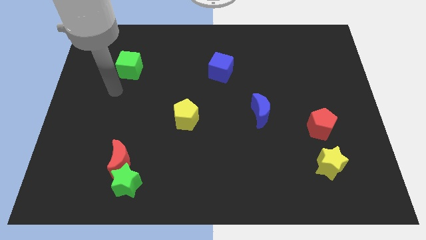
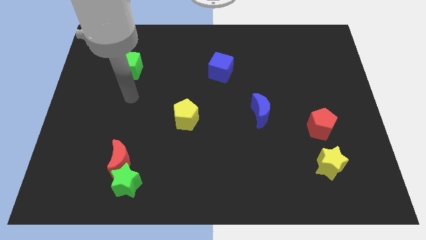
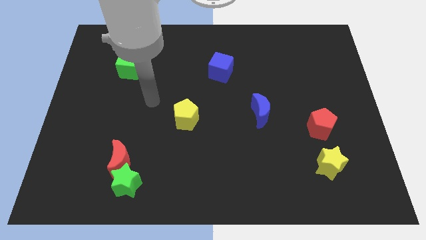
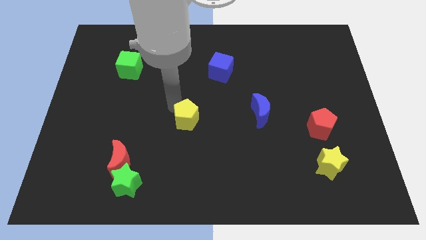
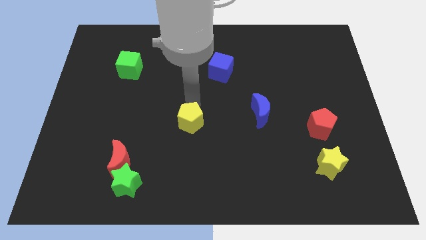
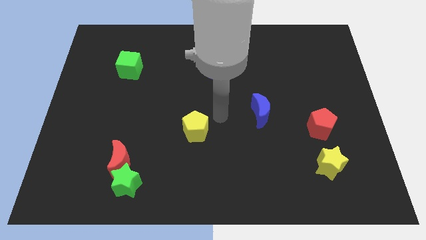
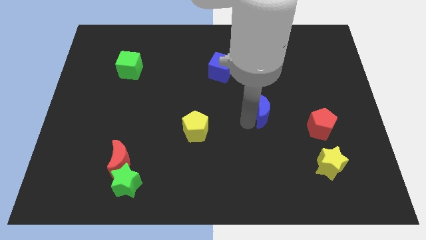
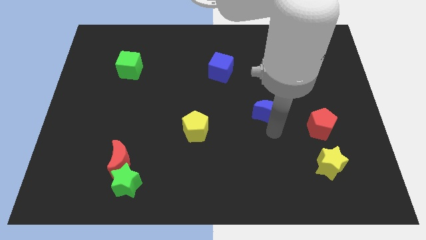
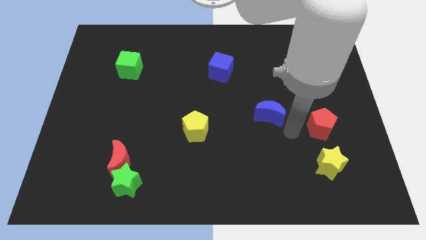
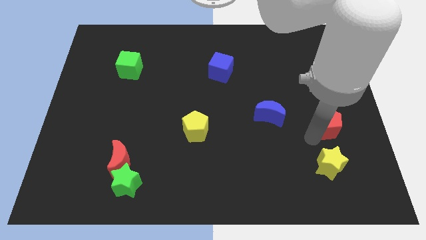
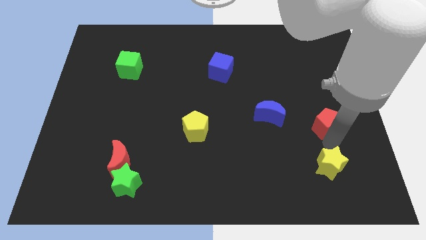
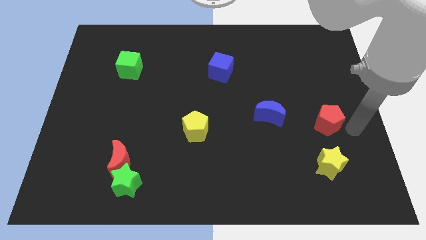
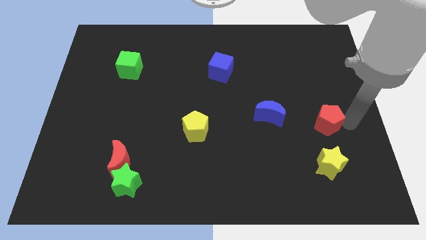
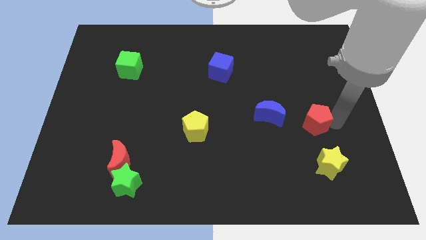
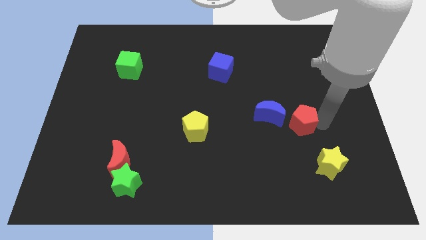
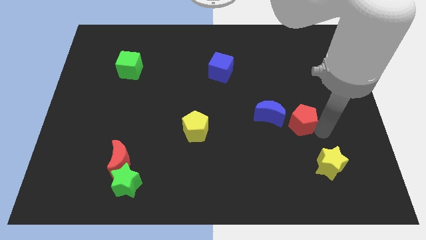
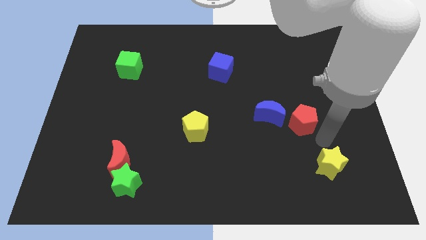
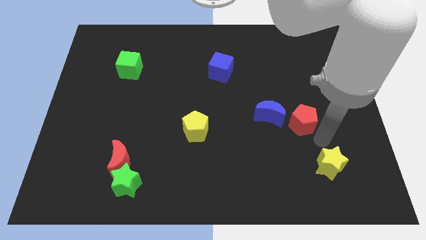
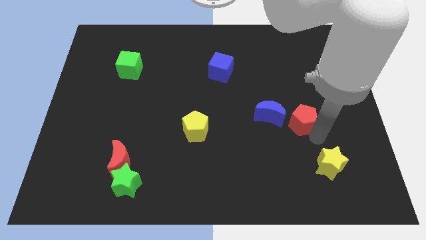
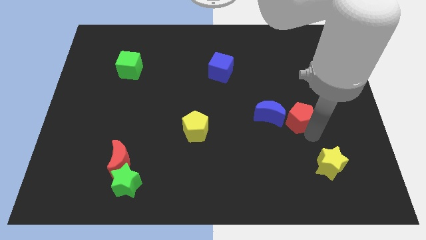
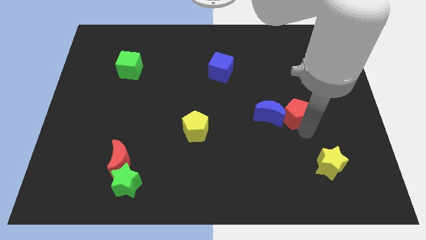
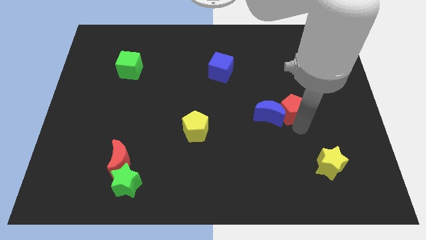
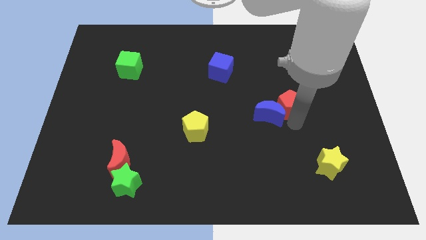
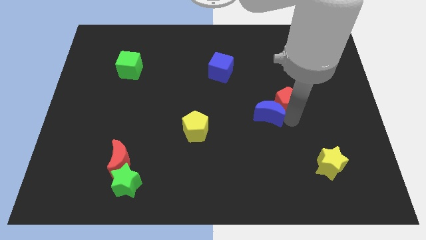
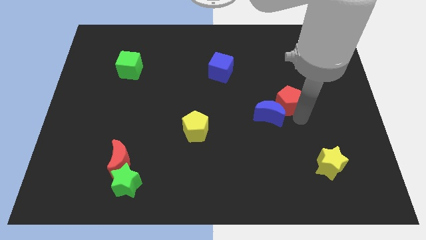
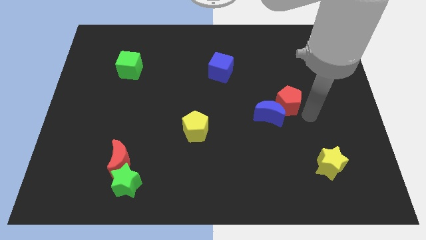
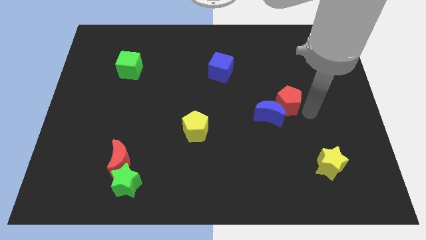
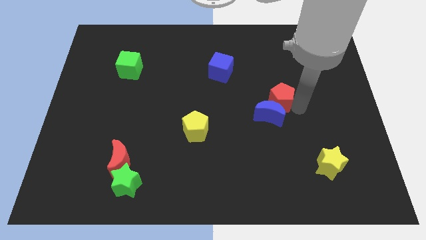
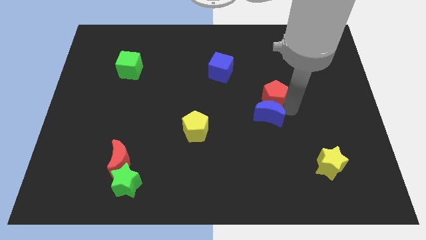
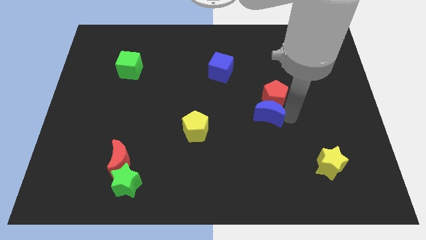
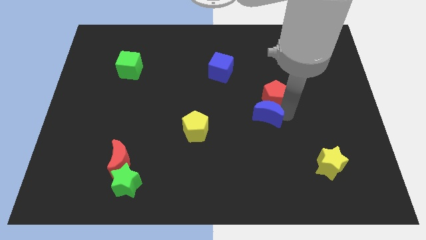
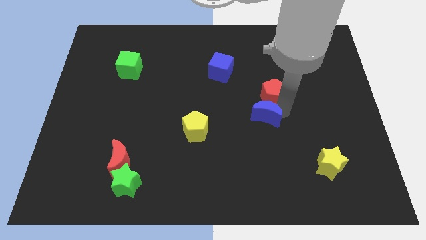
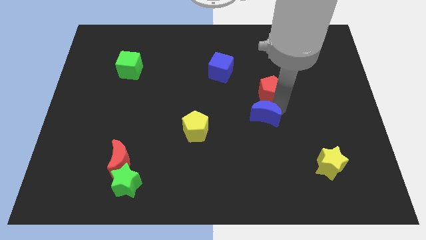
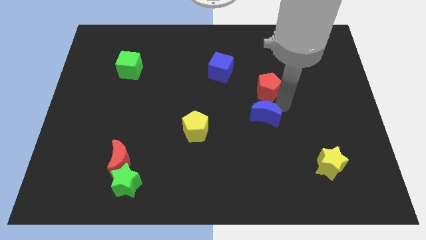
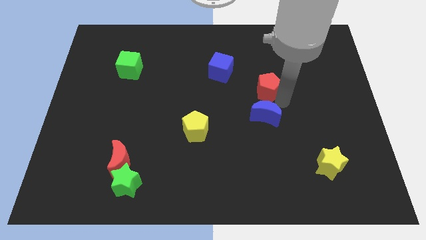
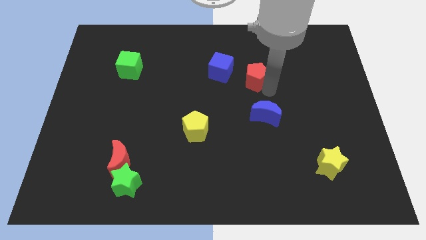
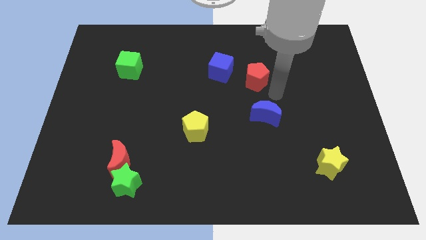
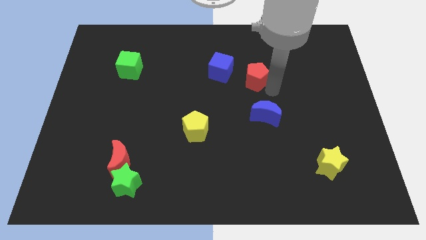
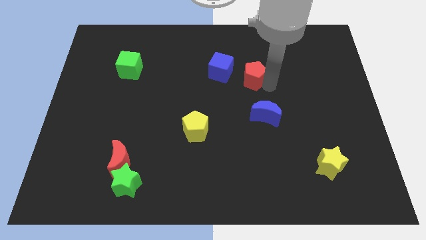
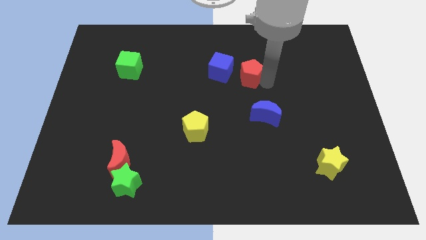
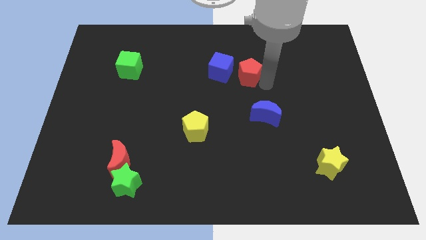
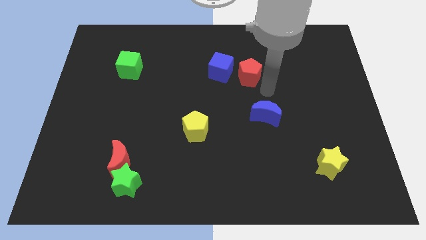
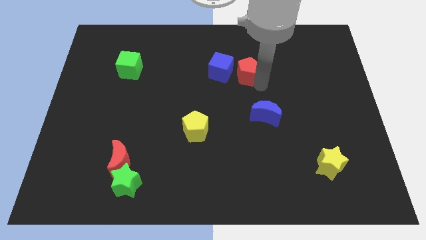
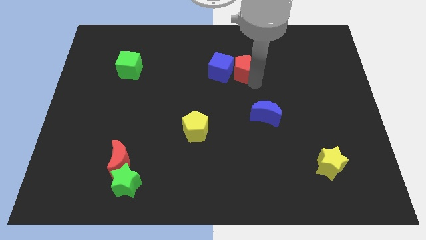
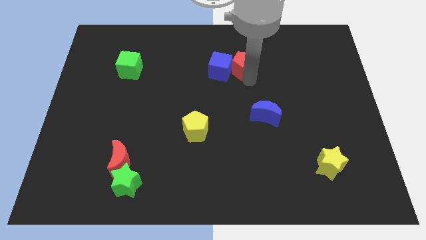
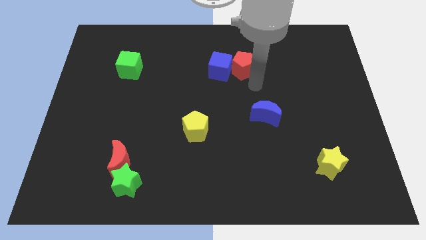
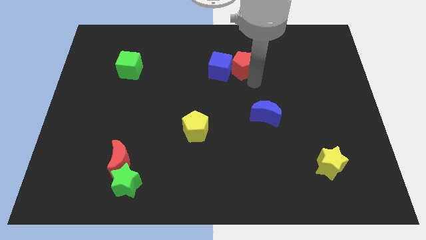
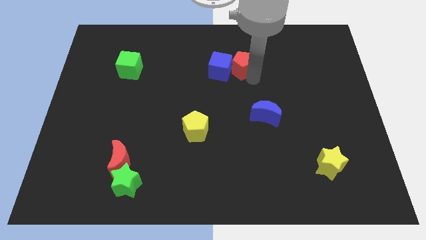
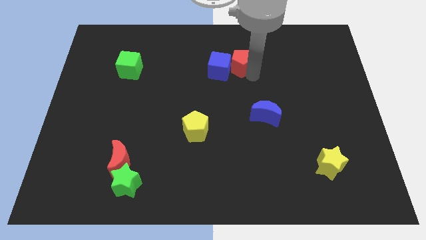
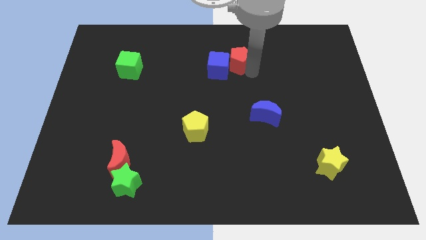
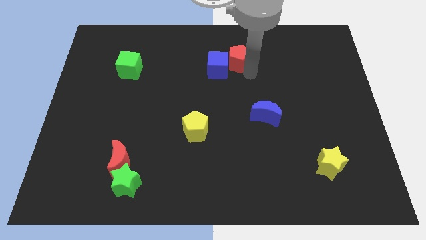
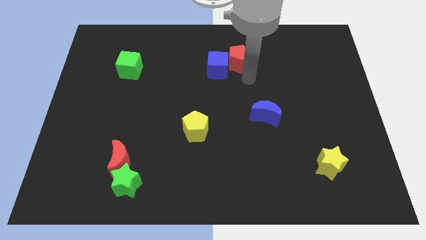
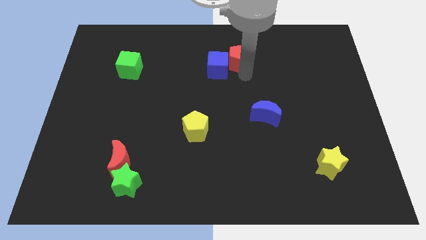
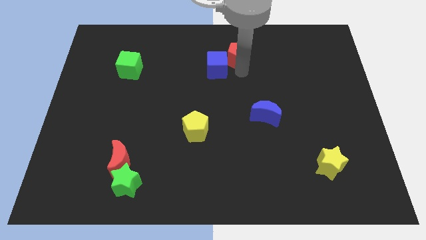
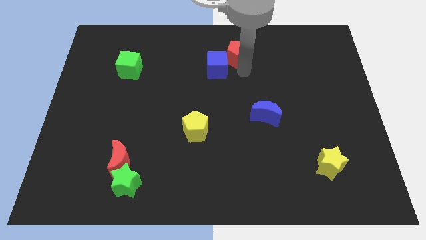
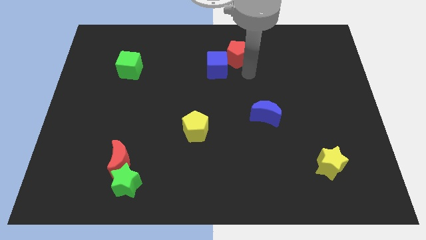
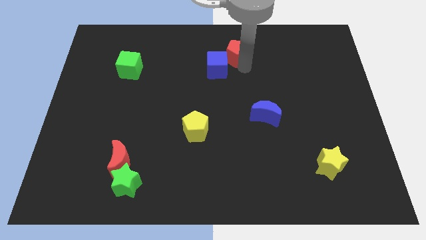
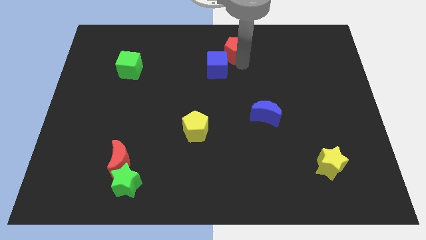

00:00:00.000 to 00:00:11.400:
push the red pentagon to the top side

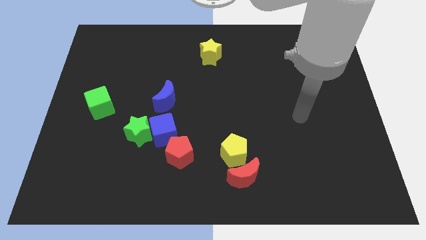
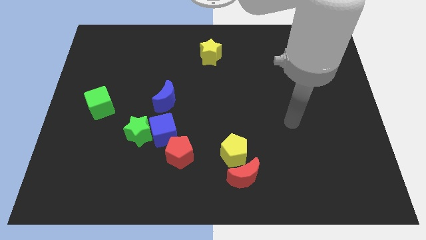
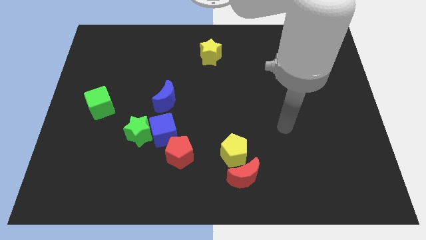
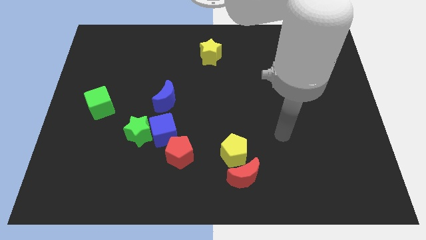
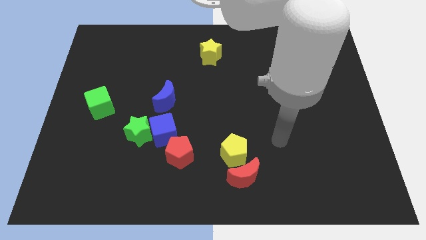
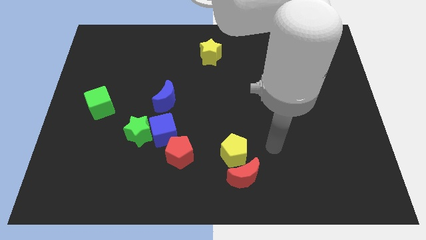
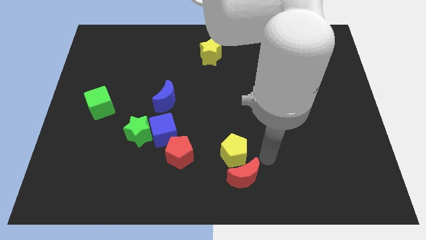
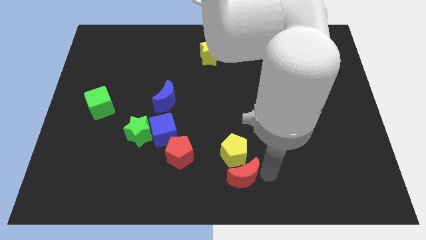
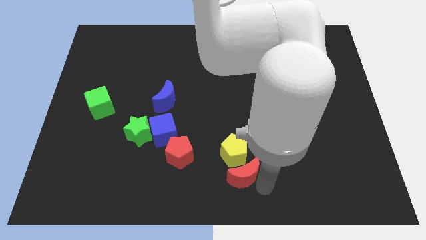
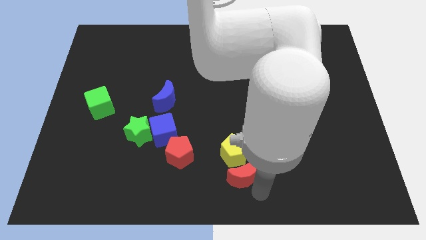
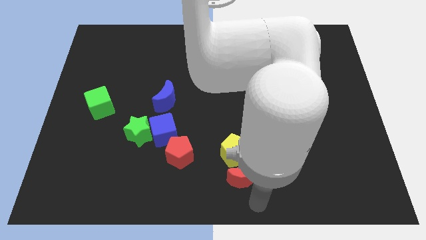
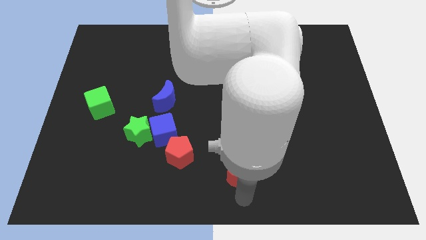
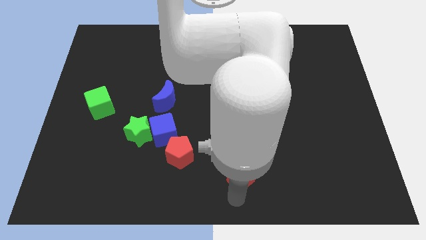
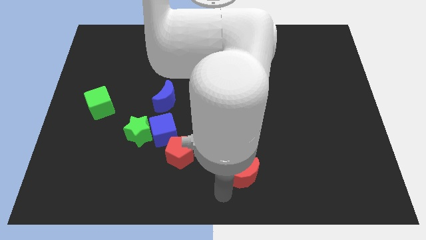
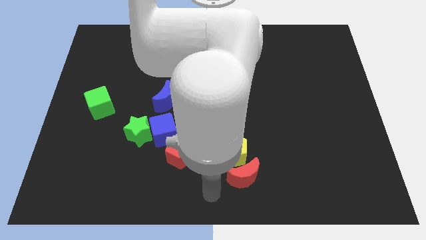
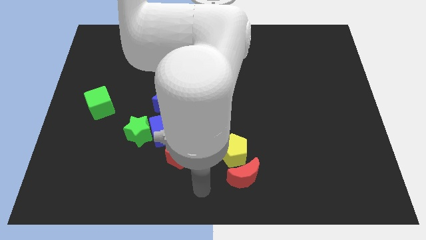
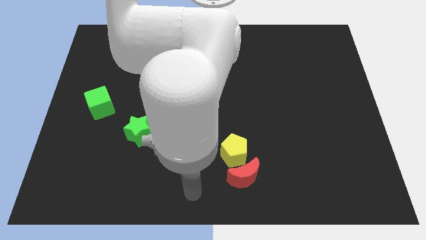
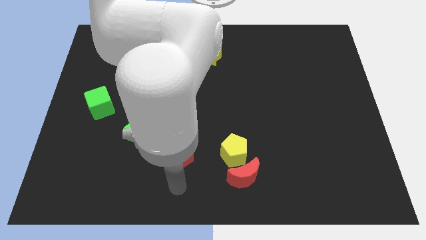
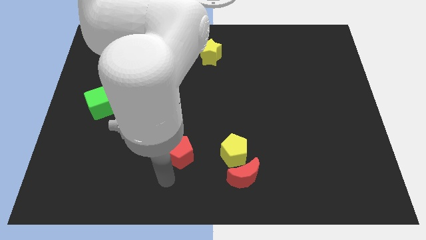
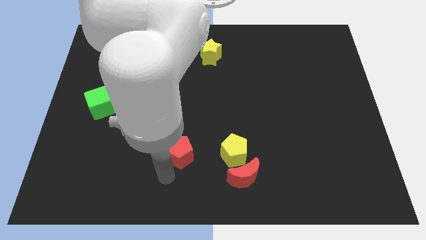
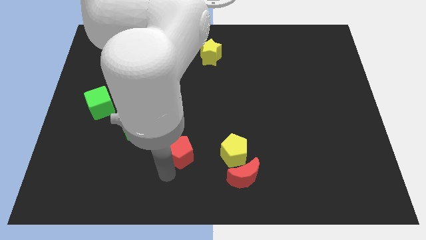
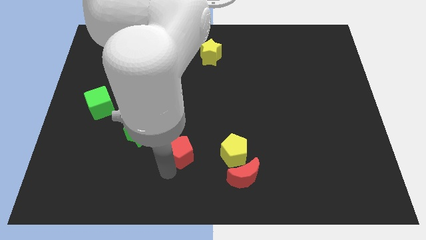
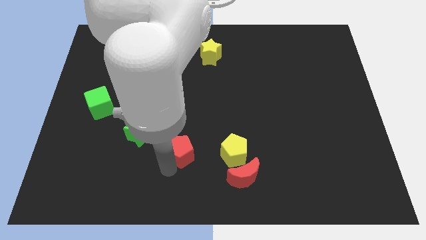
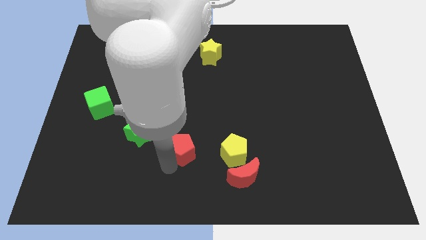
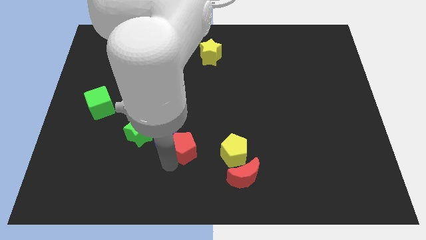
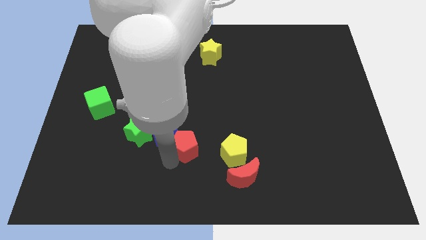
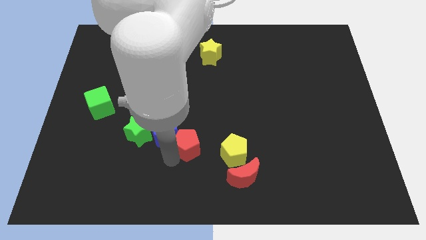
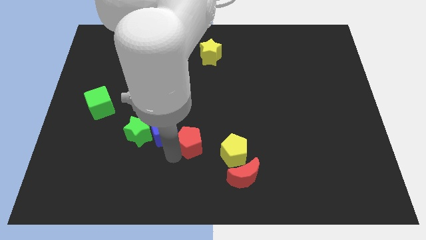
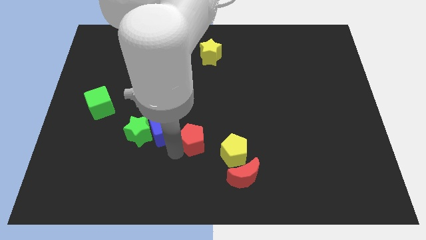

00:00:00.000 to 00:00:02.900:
move the red pentagon to the middle
